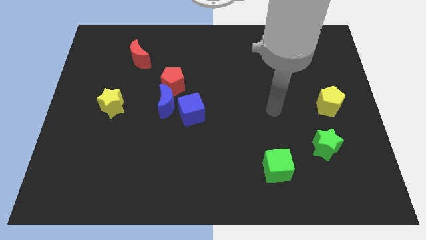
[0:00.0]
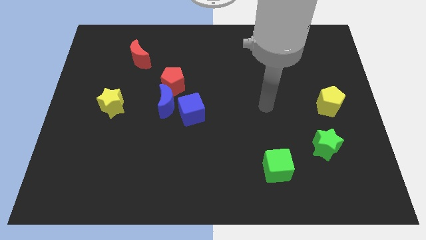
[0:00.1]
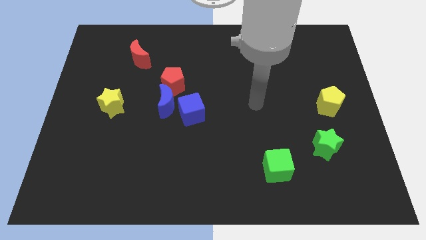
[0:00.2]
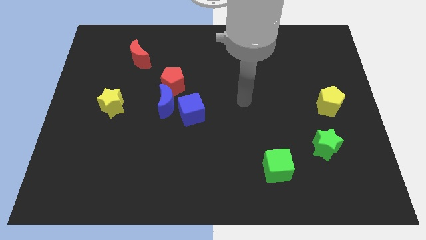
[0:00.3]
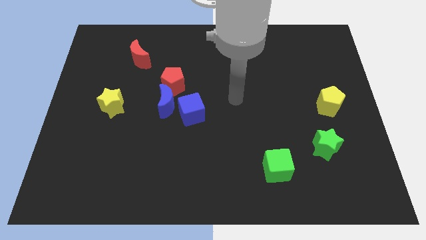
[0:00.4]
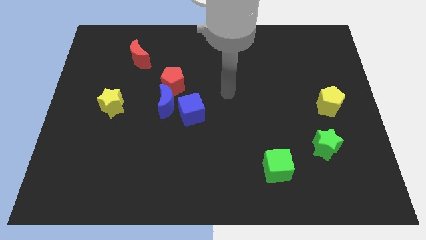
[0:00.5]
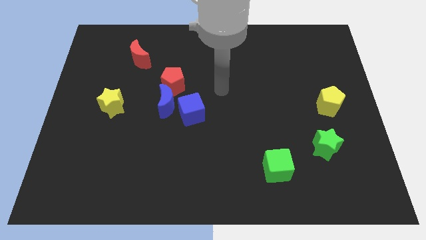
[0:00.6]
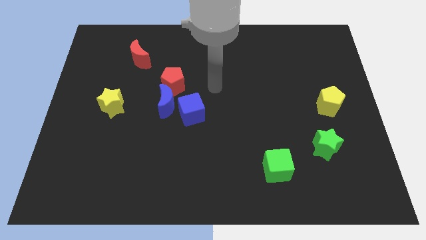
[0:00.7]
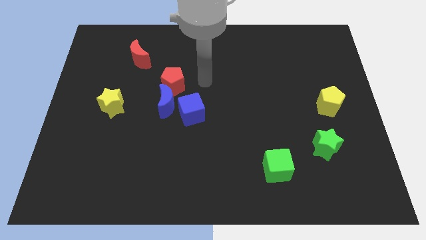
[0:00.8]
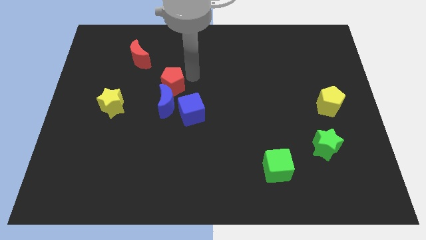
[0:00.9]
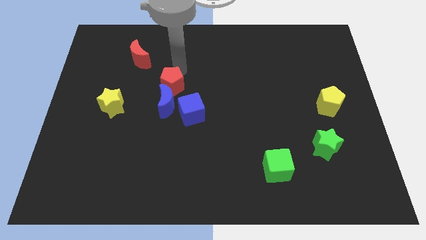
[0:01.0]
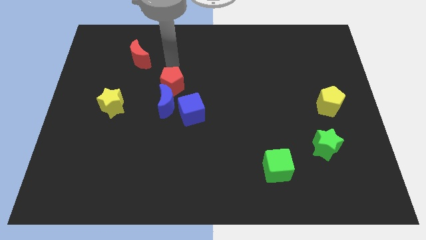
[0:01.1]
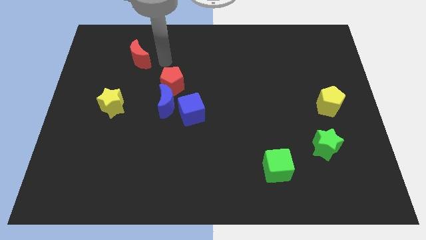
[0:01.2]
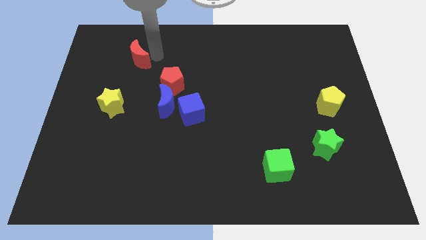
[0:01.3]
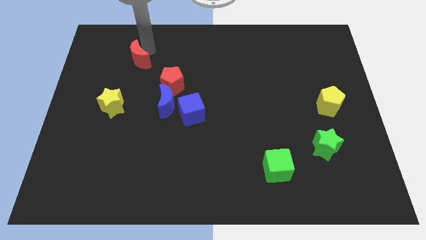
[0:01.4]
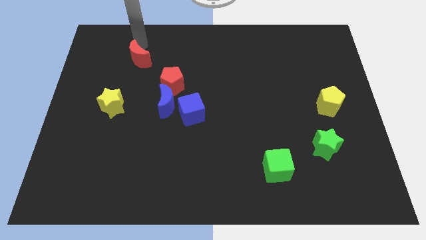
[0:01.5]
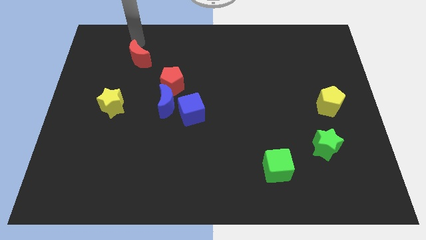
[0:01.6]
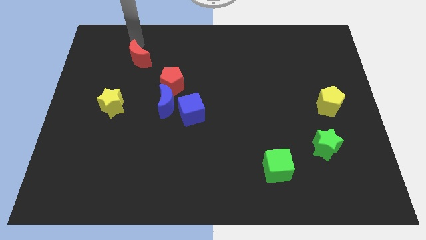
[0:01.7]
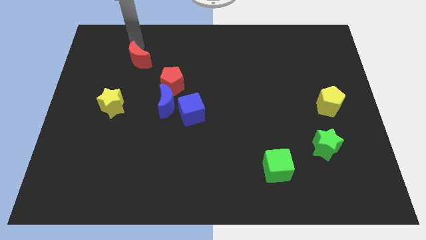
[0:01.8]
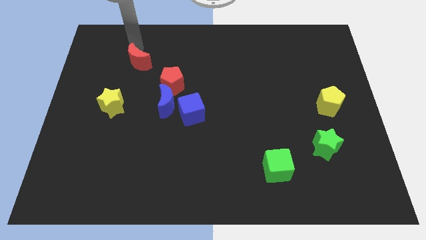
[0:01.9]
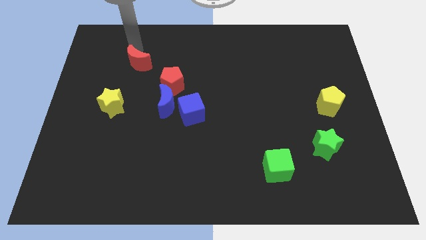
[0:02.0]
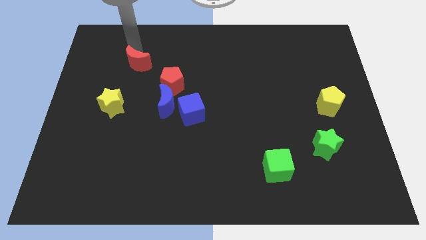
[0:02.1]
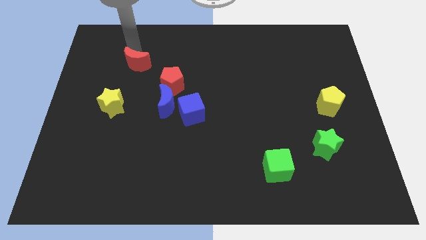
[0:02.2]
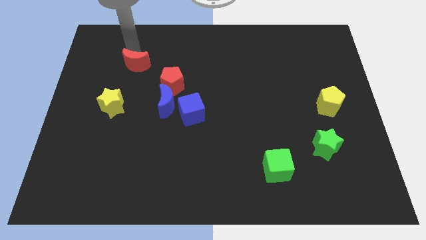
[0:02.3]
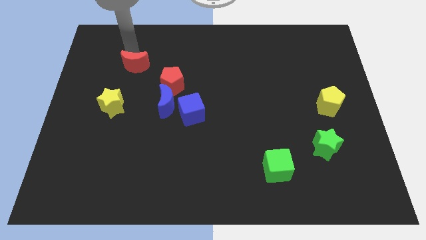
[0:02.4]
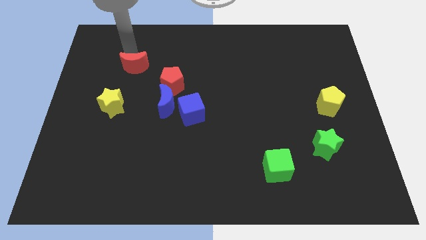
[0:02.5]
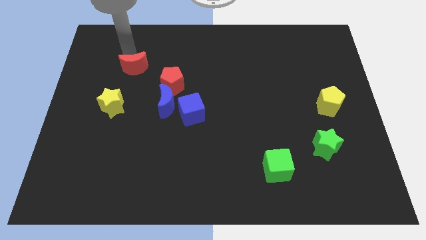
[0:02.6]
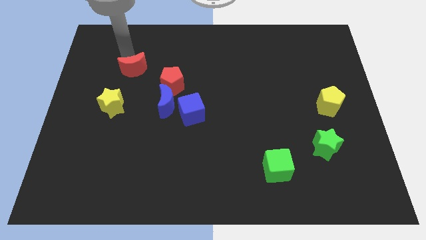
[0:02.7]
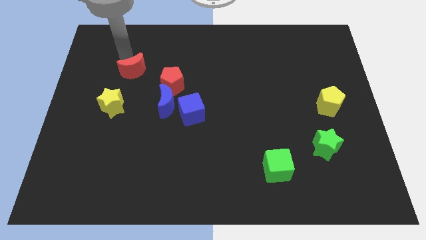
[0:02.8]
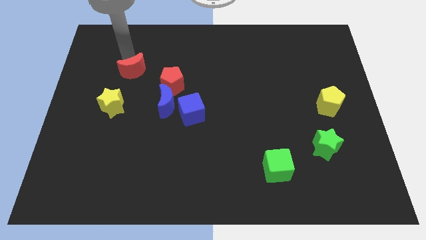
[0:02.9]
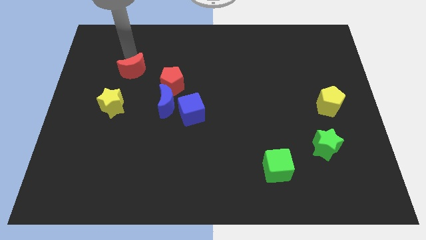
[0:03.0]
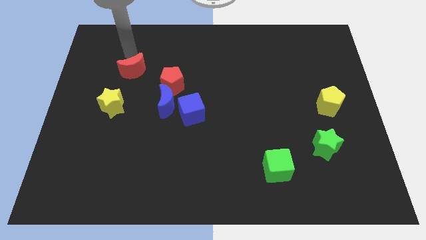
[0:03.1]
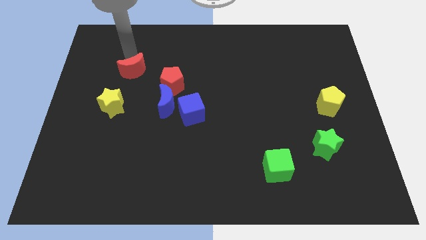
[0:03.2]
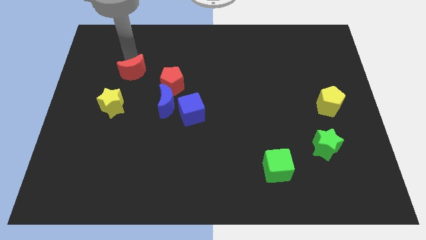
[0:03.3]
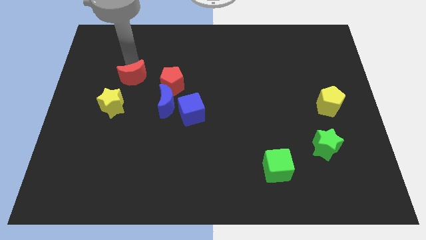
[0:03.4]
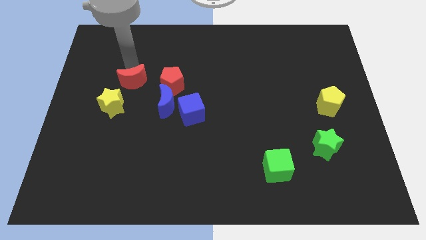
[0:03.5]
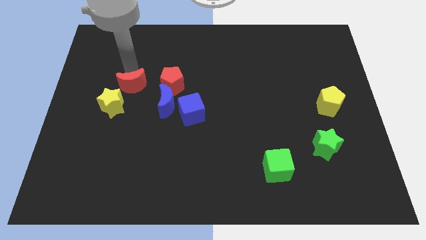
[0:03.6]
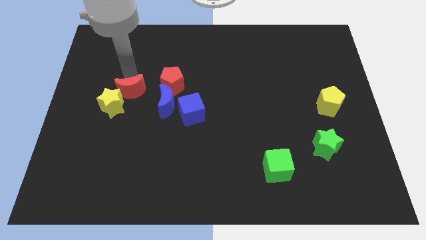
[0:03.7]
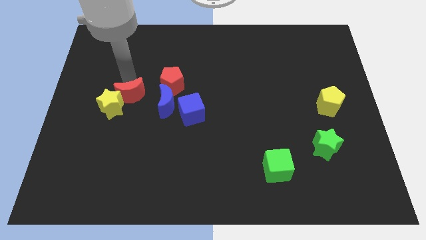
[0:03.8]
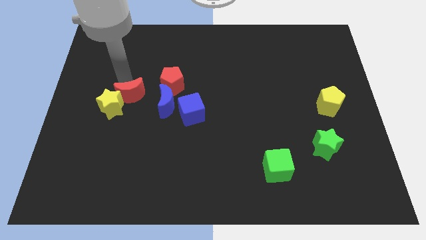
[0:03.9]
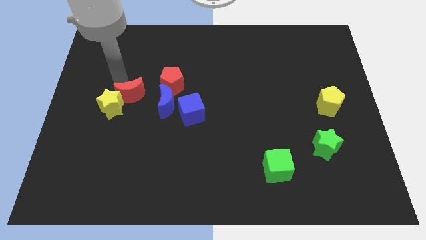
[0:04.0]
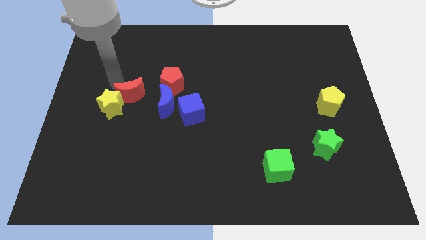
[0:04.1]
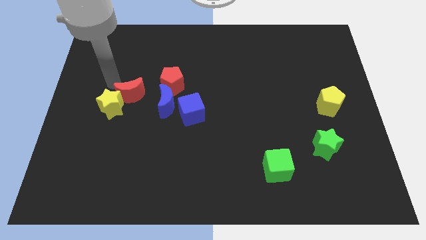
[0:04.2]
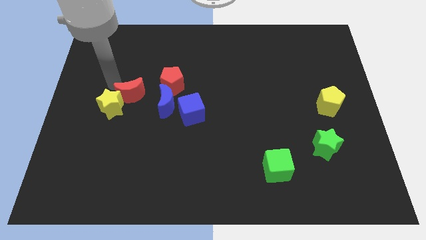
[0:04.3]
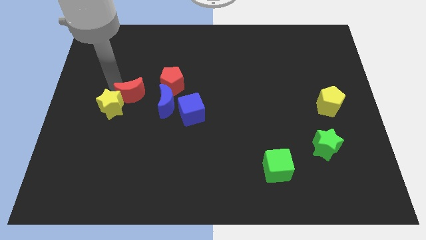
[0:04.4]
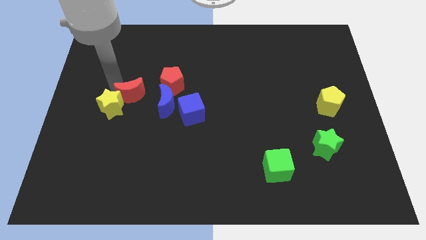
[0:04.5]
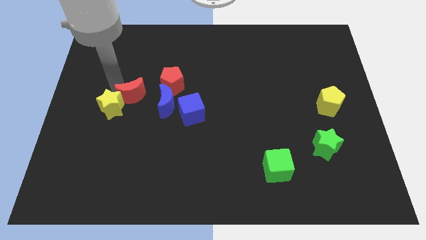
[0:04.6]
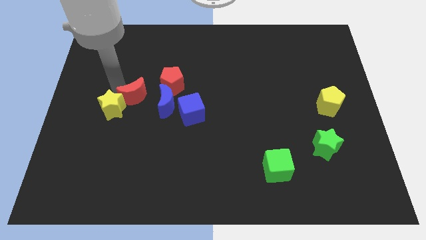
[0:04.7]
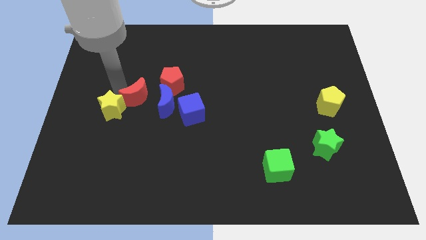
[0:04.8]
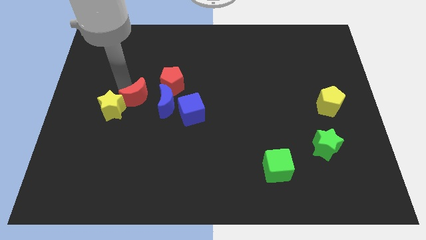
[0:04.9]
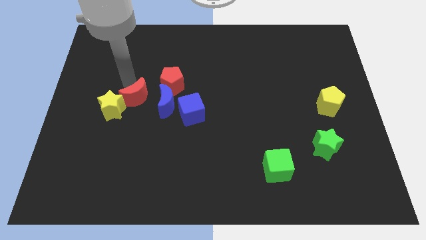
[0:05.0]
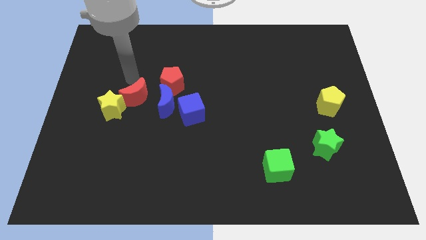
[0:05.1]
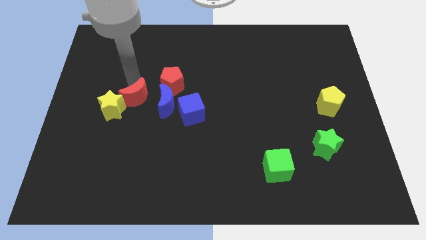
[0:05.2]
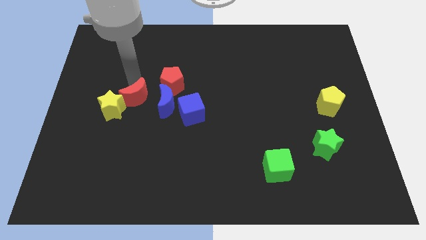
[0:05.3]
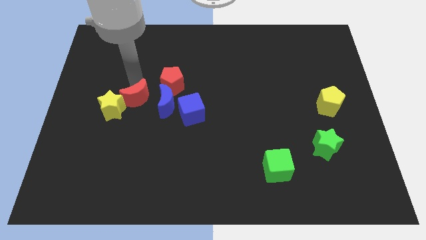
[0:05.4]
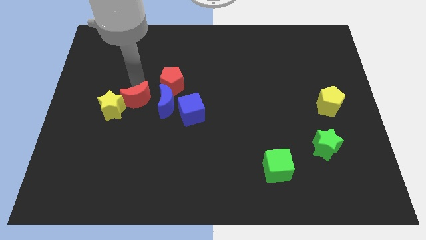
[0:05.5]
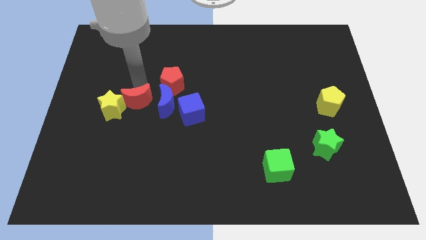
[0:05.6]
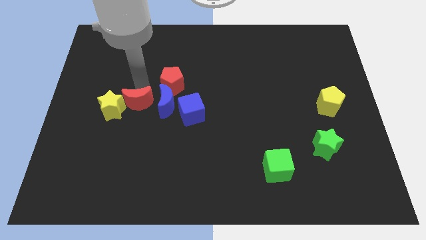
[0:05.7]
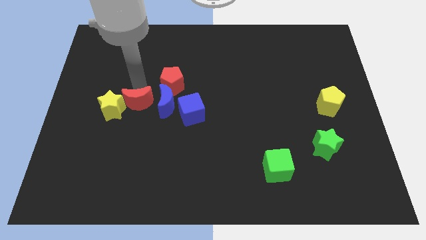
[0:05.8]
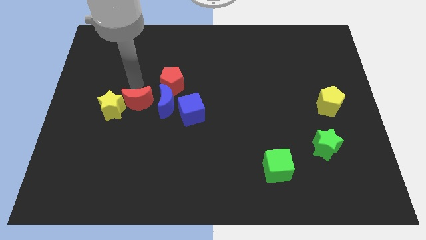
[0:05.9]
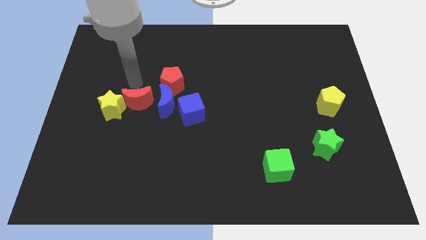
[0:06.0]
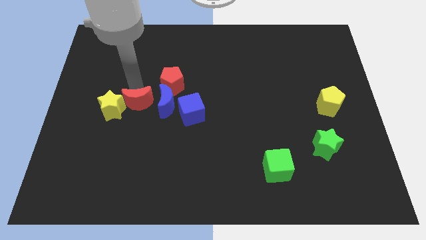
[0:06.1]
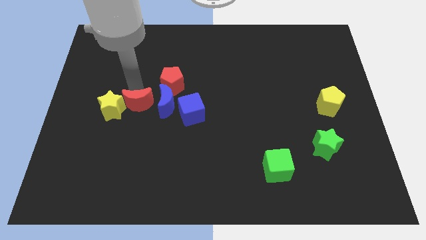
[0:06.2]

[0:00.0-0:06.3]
move the red moon to the bottom left of the blue moon

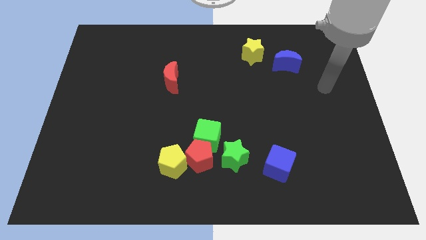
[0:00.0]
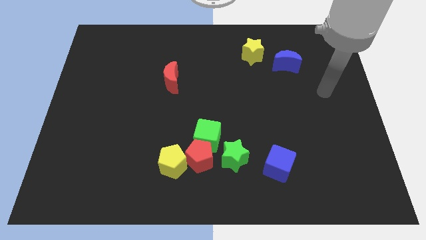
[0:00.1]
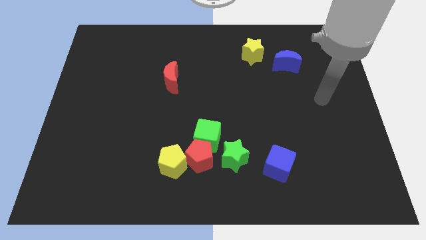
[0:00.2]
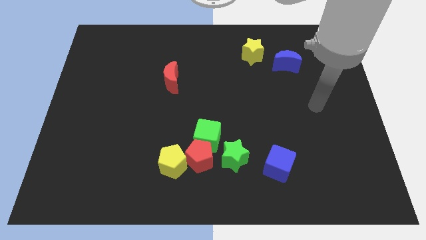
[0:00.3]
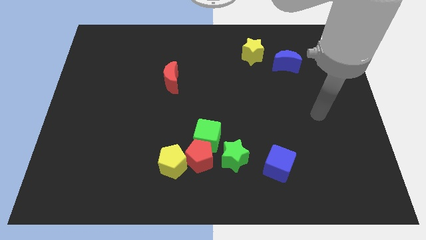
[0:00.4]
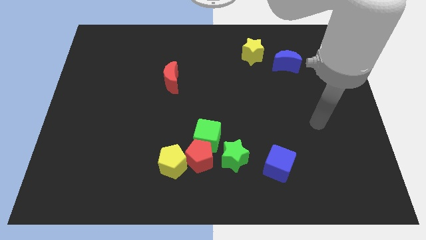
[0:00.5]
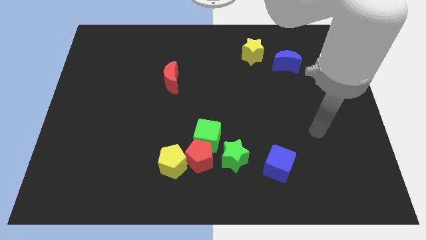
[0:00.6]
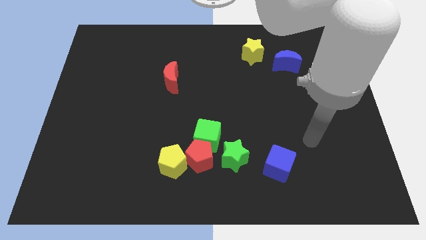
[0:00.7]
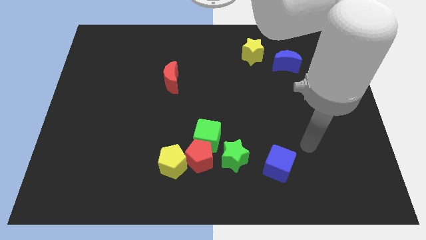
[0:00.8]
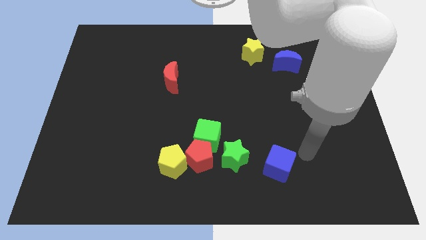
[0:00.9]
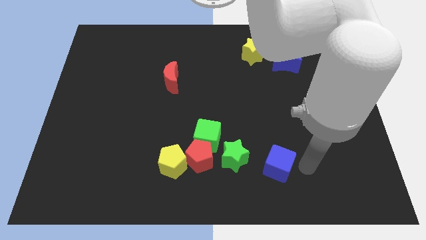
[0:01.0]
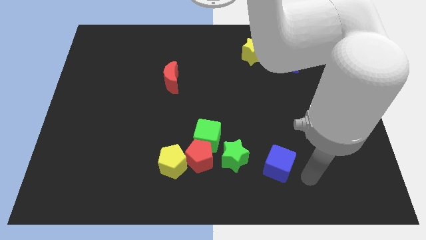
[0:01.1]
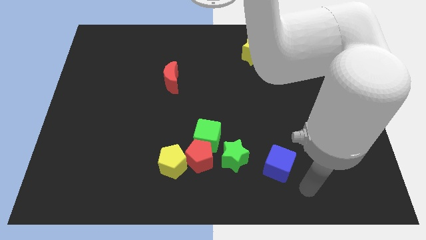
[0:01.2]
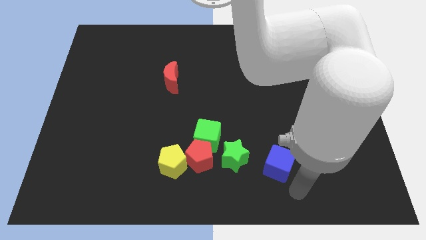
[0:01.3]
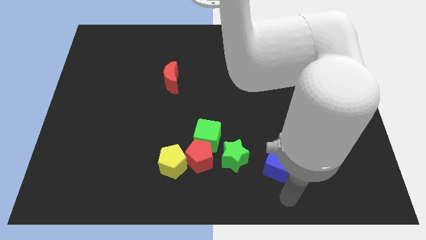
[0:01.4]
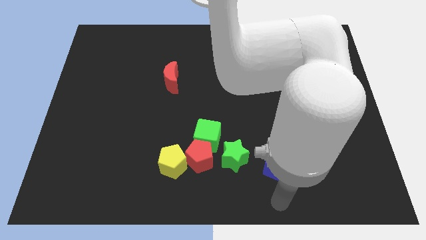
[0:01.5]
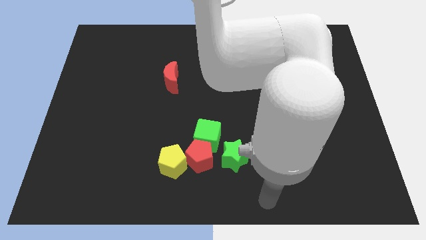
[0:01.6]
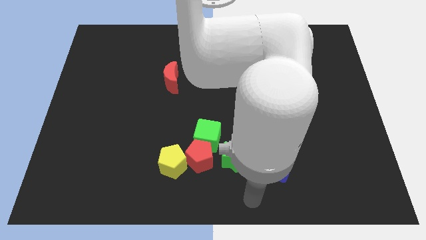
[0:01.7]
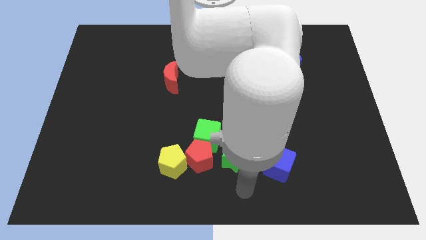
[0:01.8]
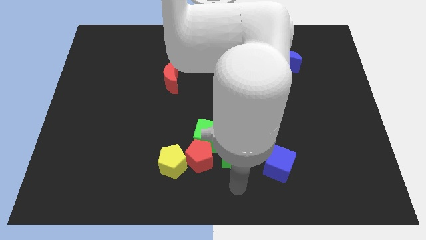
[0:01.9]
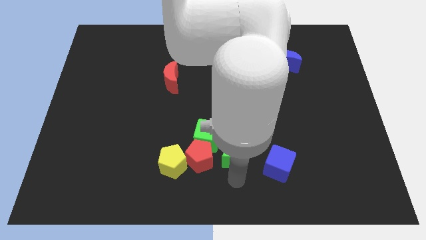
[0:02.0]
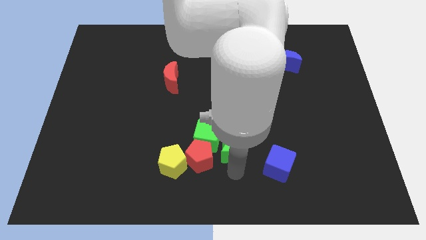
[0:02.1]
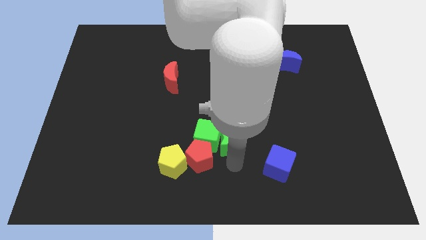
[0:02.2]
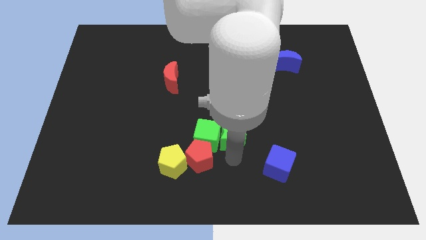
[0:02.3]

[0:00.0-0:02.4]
move the green star diagonally up and to the right of the green cube
